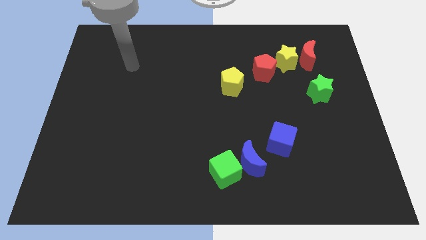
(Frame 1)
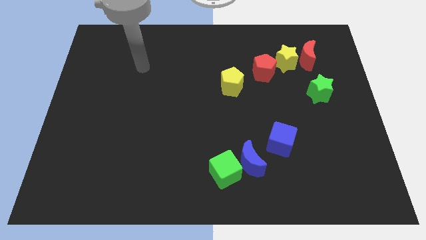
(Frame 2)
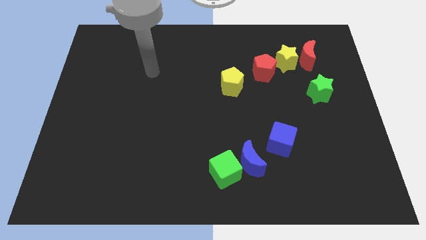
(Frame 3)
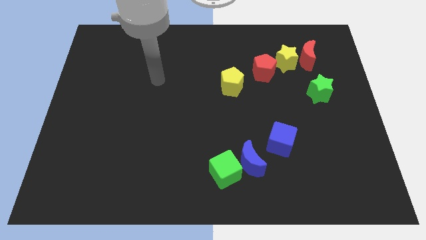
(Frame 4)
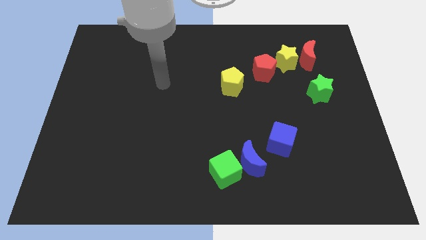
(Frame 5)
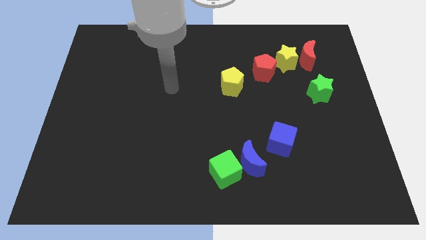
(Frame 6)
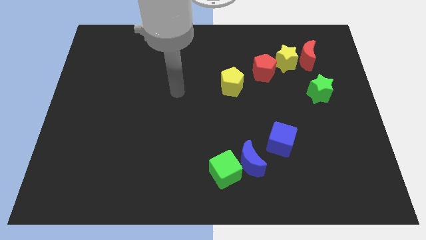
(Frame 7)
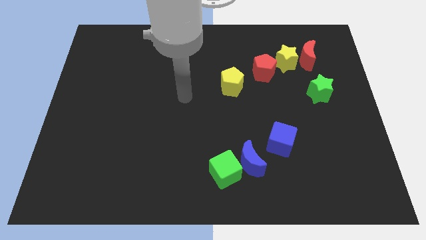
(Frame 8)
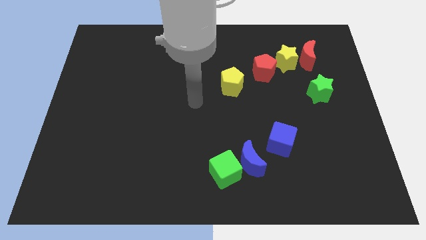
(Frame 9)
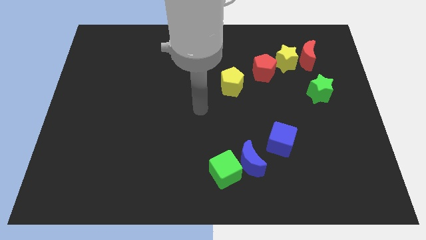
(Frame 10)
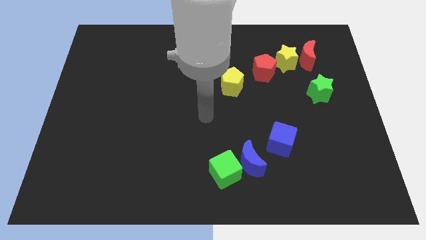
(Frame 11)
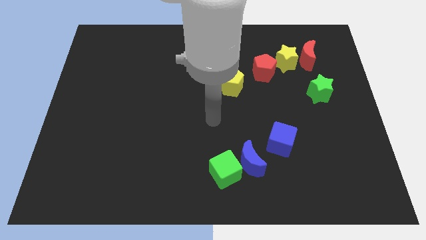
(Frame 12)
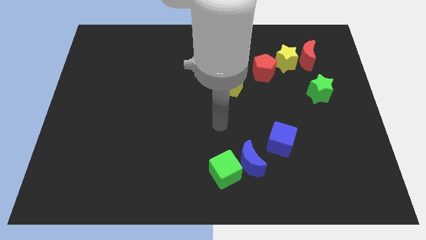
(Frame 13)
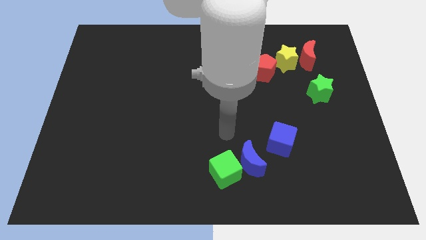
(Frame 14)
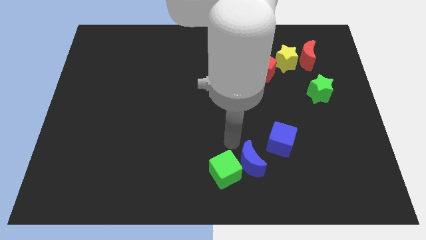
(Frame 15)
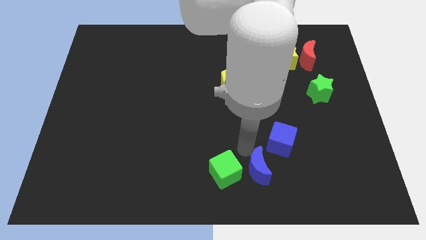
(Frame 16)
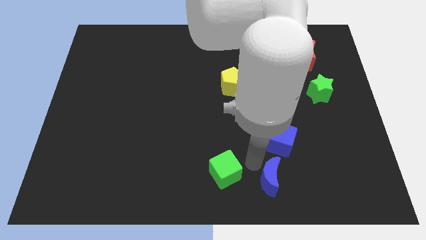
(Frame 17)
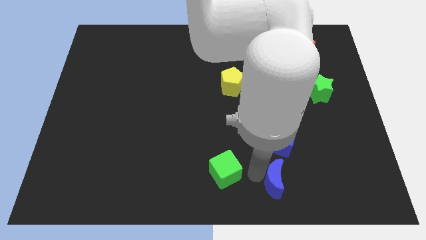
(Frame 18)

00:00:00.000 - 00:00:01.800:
separate the green cube from the blue moon

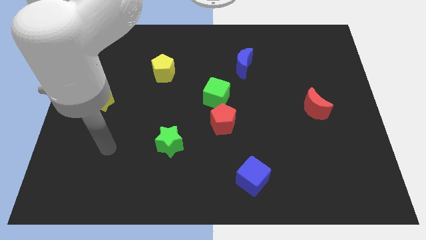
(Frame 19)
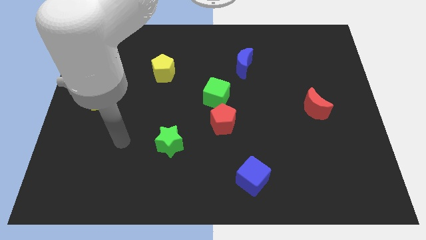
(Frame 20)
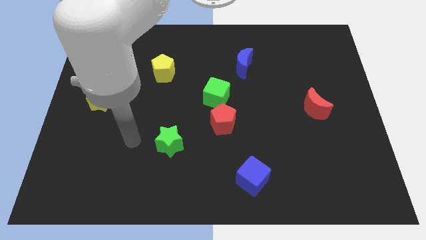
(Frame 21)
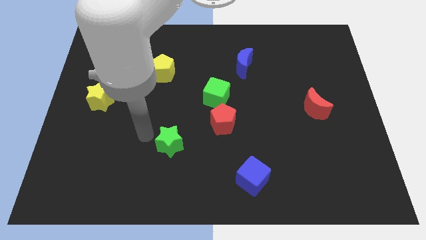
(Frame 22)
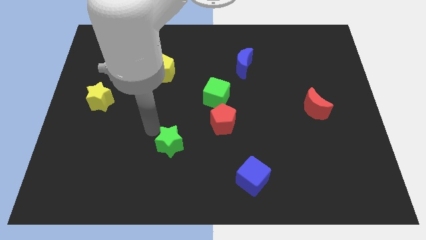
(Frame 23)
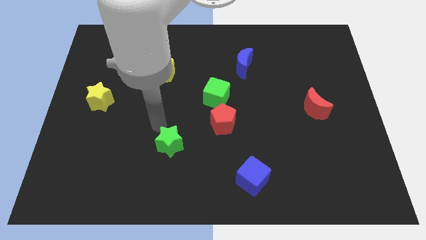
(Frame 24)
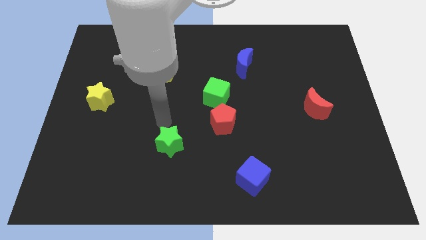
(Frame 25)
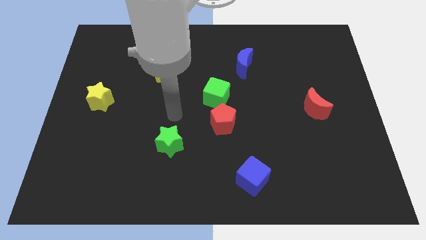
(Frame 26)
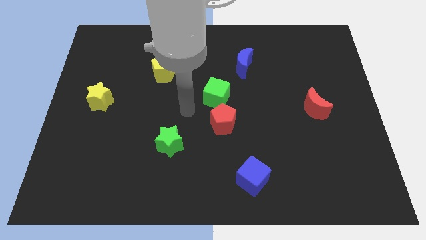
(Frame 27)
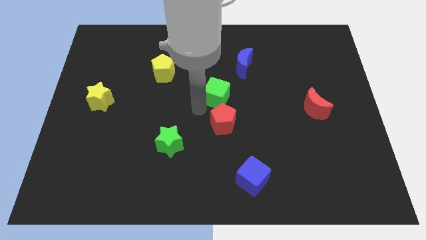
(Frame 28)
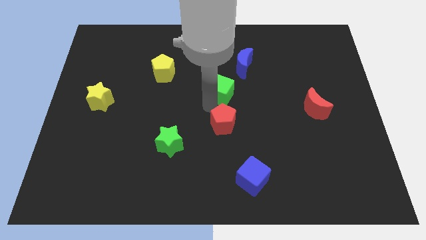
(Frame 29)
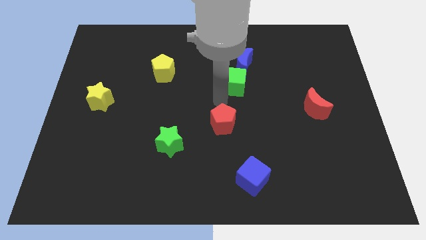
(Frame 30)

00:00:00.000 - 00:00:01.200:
pull the red pentagon apart from the green cube

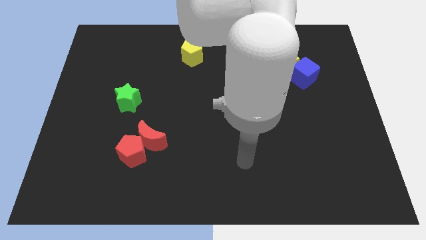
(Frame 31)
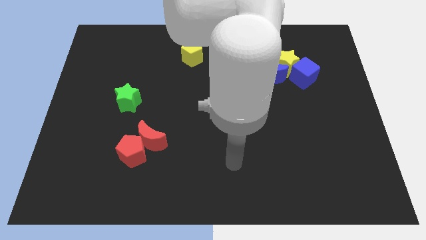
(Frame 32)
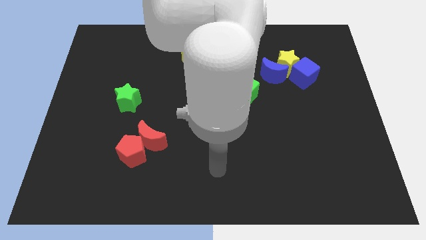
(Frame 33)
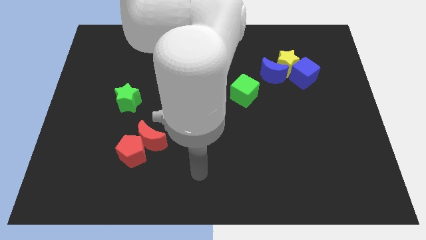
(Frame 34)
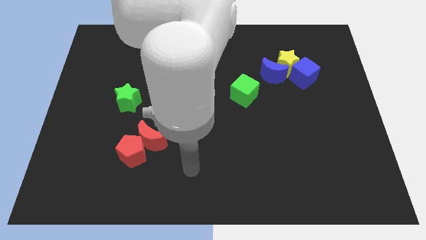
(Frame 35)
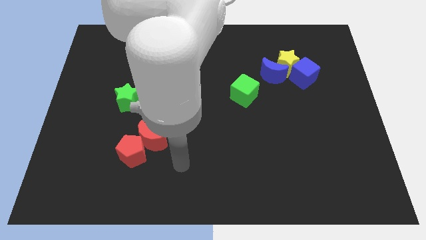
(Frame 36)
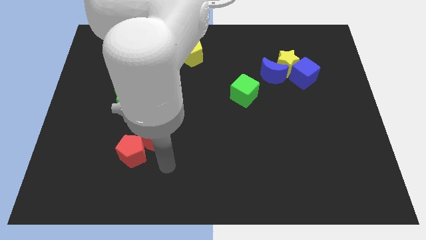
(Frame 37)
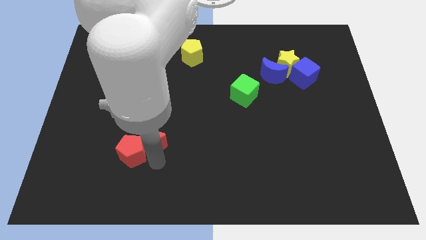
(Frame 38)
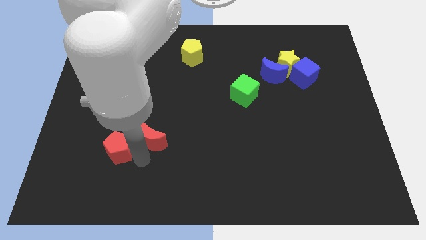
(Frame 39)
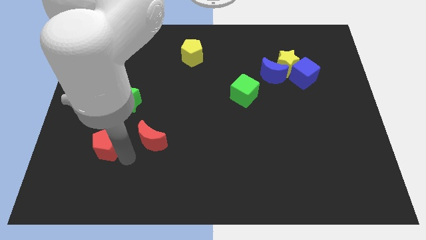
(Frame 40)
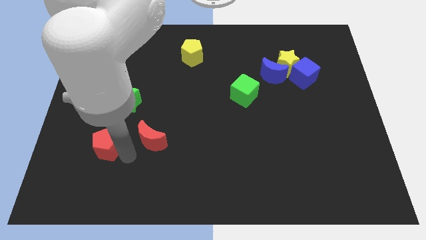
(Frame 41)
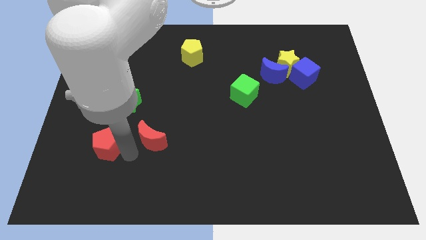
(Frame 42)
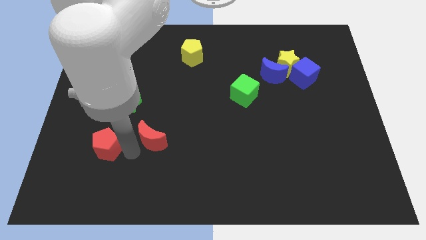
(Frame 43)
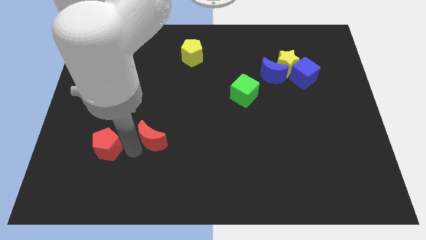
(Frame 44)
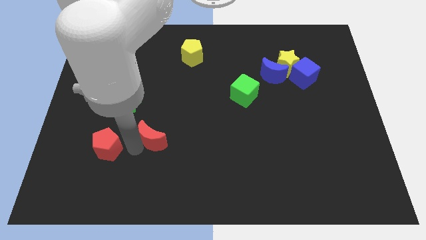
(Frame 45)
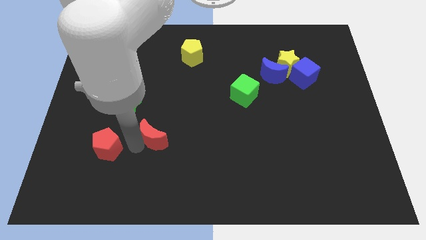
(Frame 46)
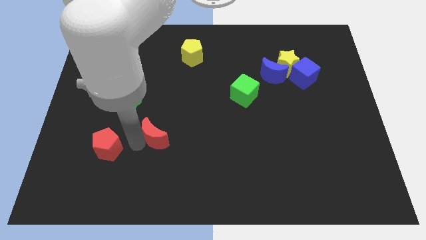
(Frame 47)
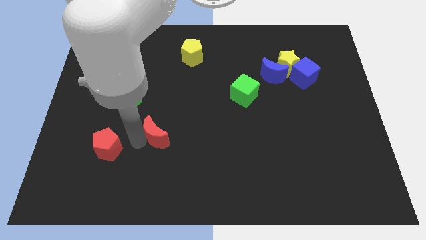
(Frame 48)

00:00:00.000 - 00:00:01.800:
move the red moon away from the red pentagon

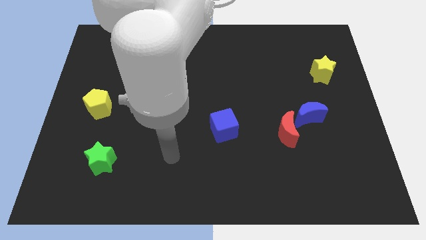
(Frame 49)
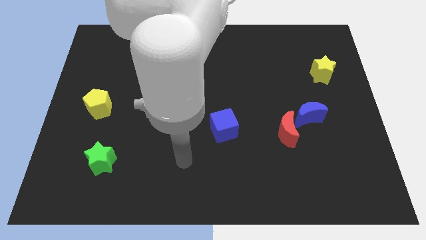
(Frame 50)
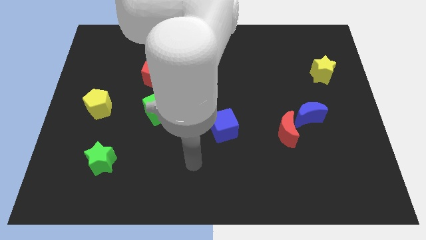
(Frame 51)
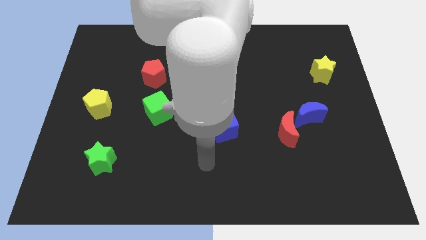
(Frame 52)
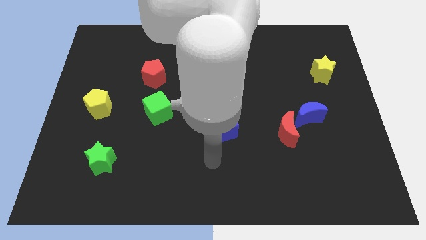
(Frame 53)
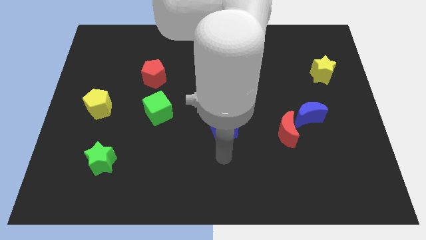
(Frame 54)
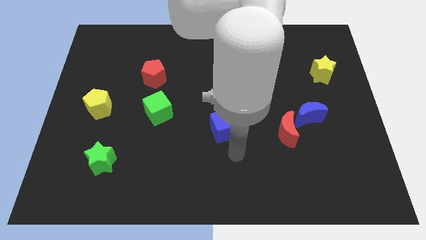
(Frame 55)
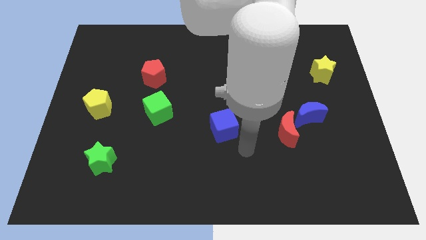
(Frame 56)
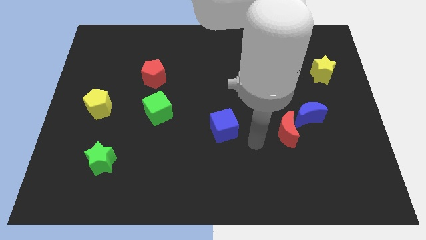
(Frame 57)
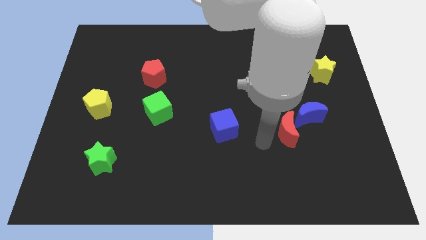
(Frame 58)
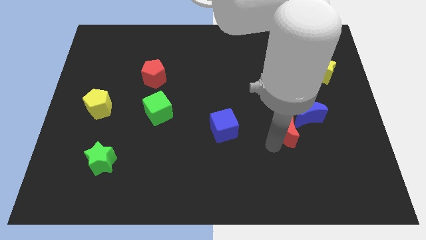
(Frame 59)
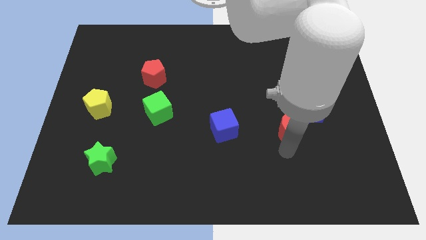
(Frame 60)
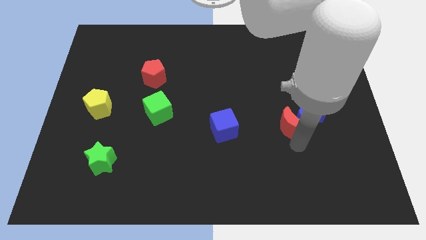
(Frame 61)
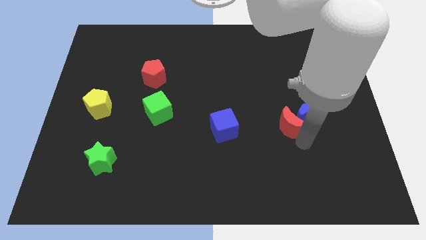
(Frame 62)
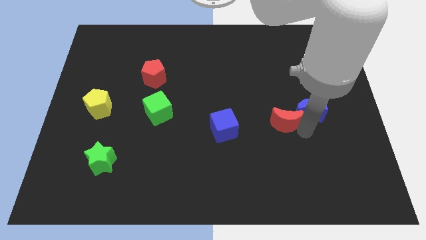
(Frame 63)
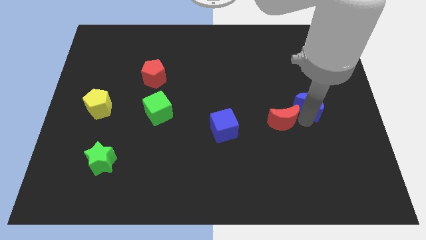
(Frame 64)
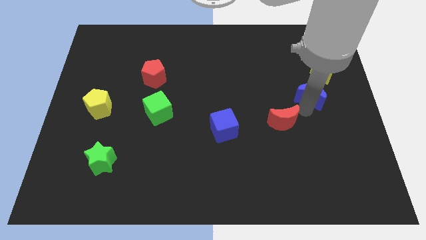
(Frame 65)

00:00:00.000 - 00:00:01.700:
move the red moon away from the blue moon

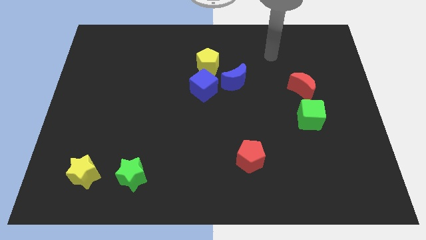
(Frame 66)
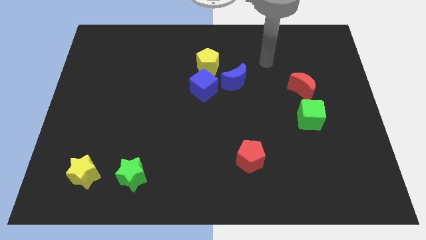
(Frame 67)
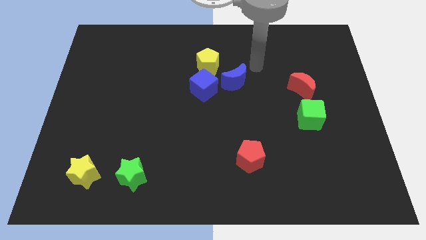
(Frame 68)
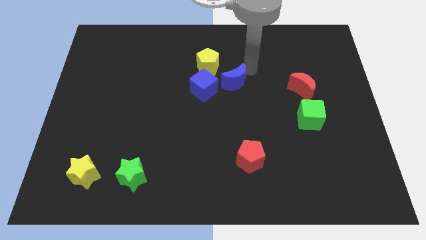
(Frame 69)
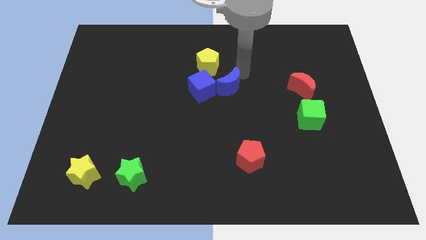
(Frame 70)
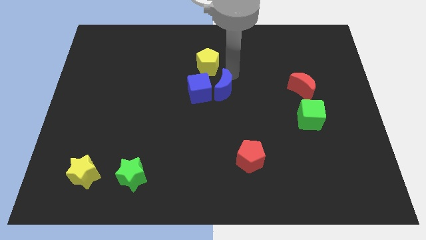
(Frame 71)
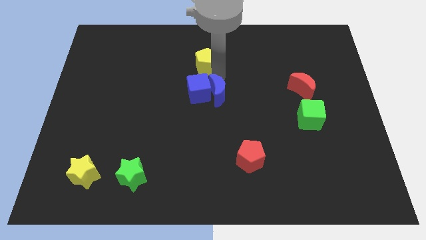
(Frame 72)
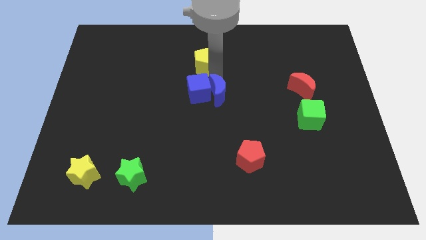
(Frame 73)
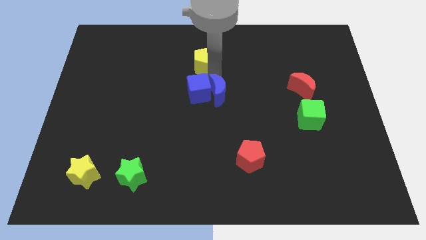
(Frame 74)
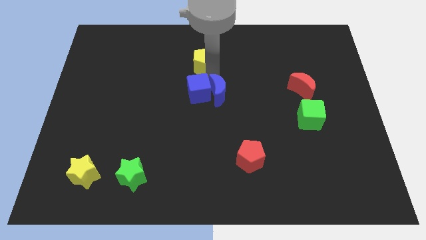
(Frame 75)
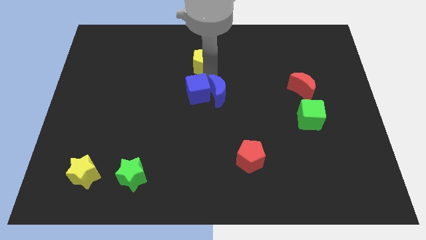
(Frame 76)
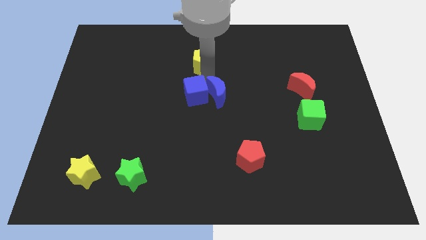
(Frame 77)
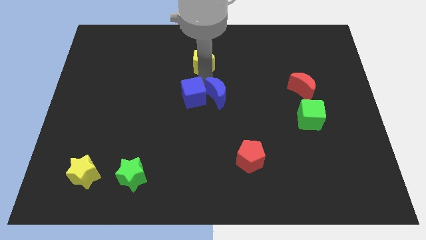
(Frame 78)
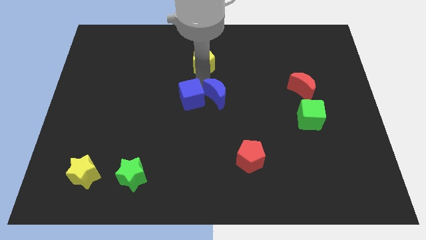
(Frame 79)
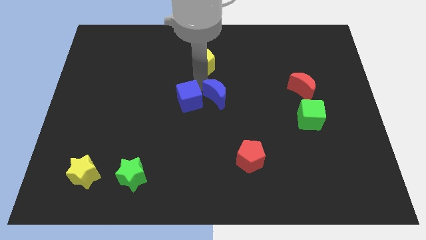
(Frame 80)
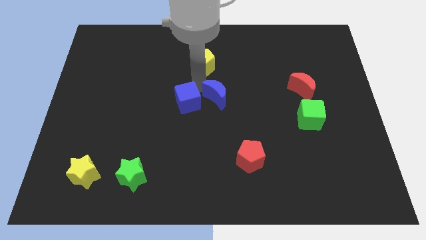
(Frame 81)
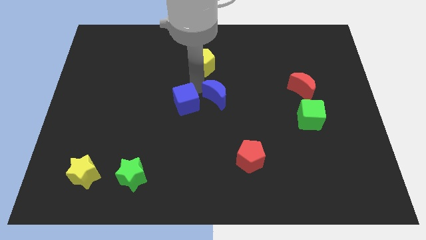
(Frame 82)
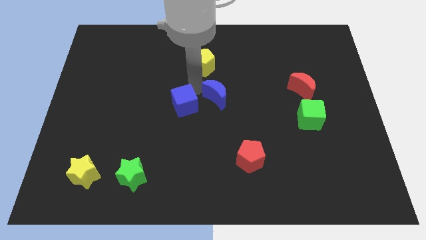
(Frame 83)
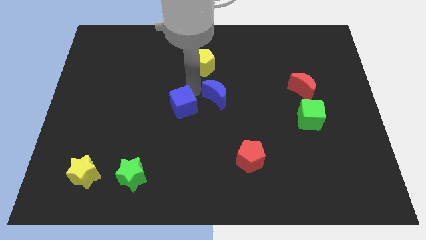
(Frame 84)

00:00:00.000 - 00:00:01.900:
move the blue cube away from the yellow pentagon and blue moon

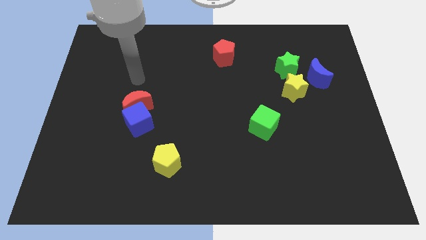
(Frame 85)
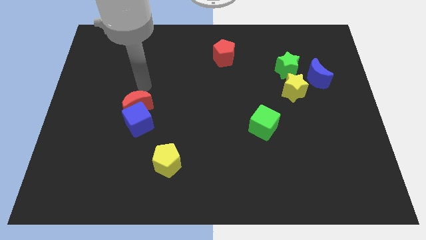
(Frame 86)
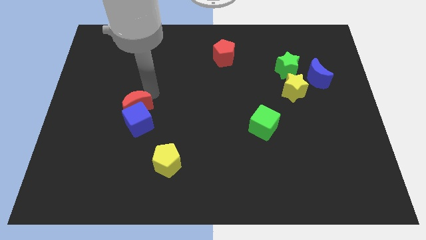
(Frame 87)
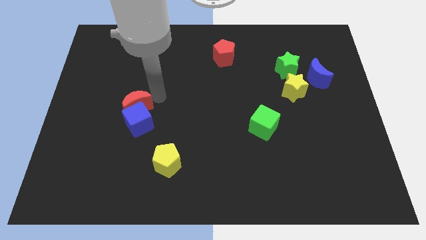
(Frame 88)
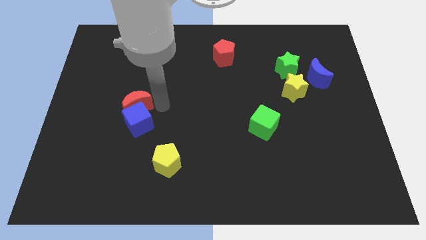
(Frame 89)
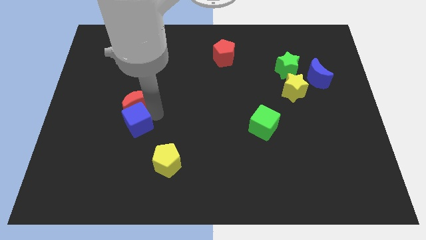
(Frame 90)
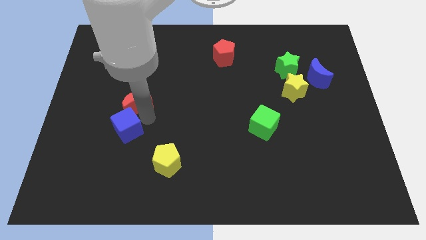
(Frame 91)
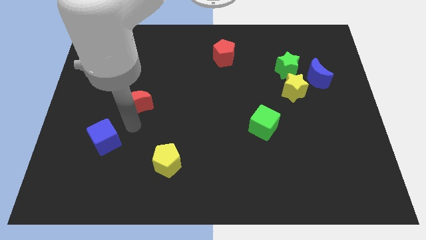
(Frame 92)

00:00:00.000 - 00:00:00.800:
move the red moon away from the blue cube

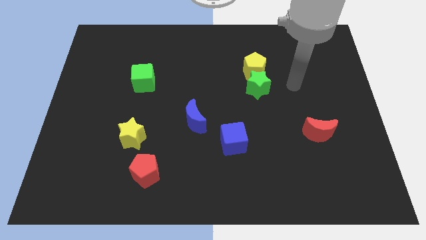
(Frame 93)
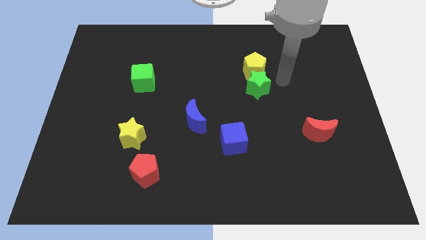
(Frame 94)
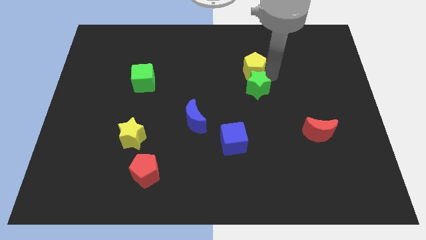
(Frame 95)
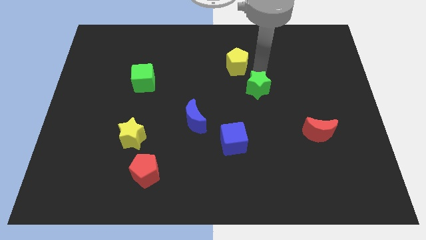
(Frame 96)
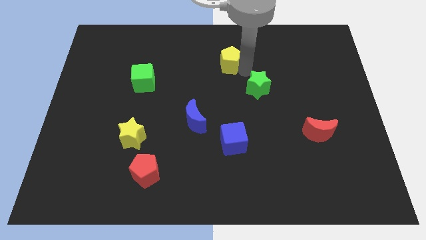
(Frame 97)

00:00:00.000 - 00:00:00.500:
separate the green star from the yellow pentagon
